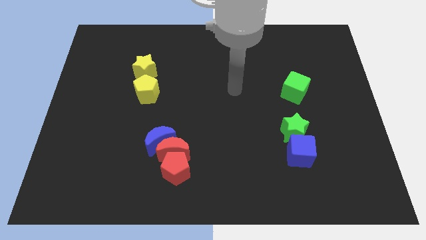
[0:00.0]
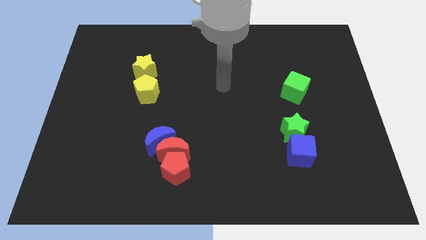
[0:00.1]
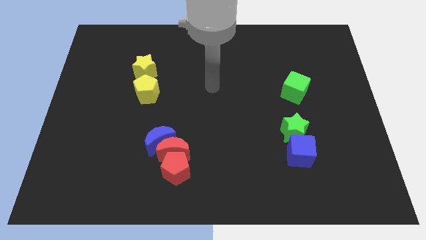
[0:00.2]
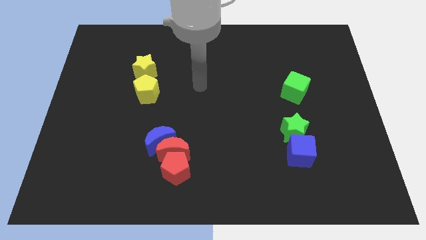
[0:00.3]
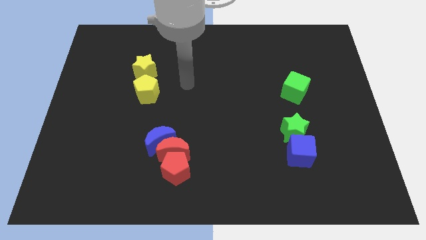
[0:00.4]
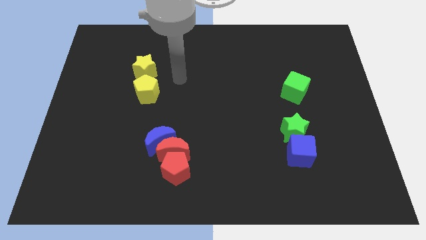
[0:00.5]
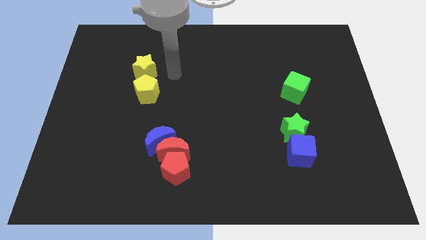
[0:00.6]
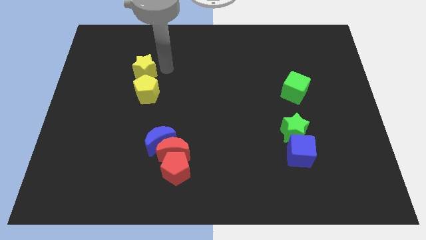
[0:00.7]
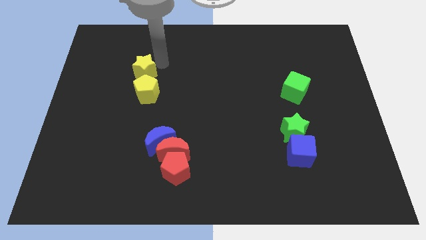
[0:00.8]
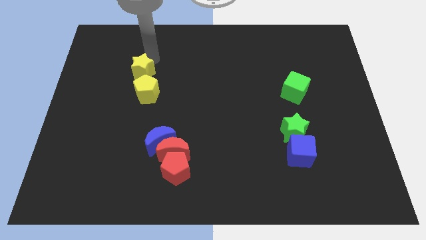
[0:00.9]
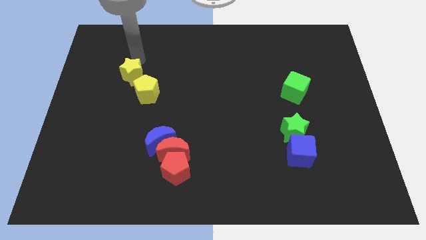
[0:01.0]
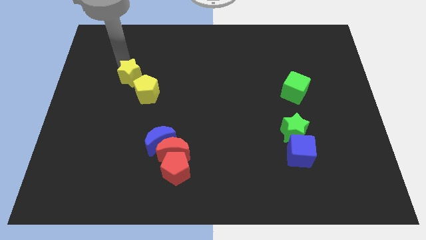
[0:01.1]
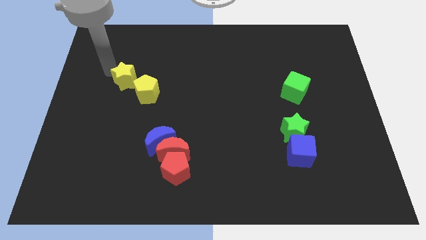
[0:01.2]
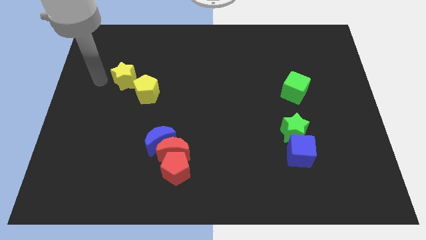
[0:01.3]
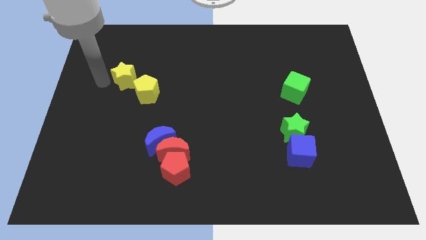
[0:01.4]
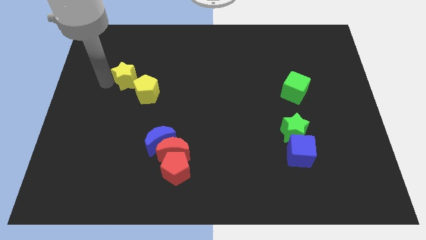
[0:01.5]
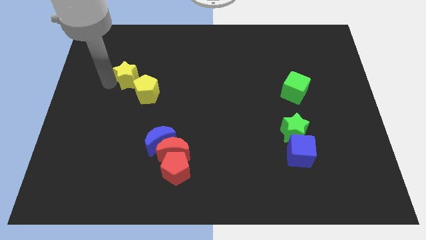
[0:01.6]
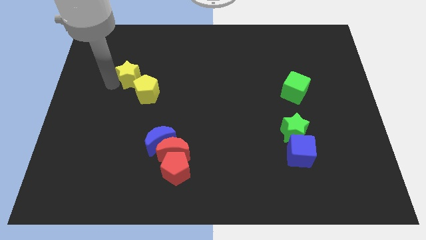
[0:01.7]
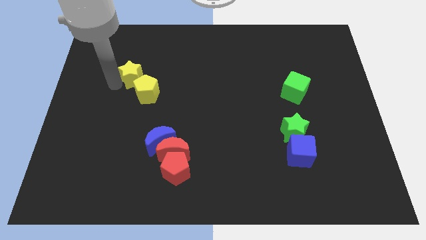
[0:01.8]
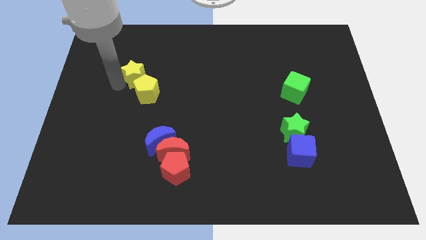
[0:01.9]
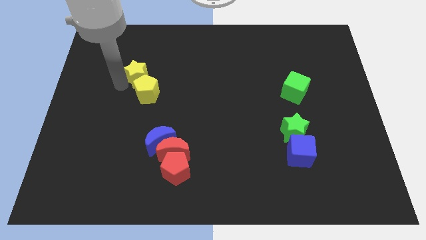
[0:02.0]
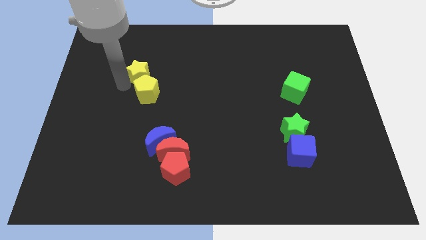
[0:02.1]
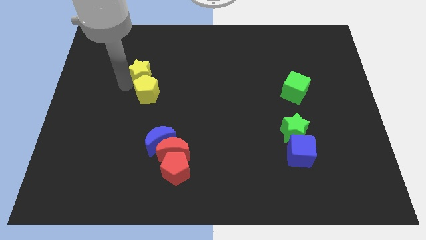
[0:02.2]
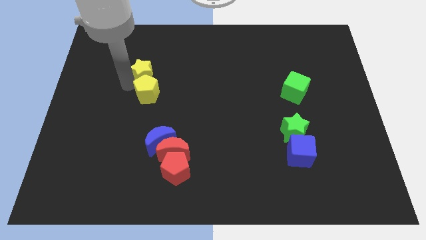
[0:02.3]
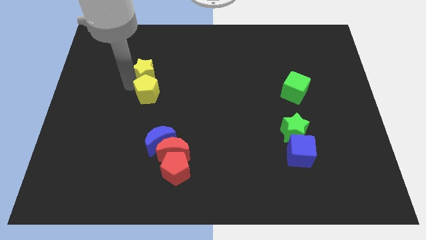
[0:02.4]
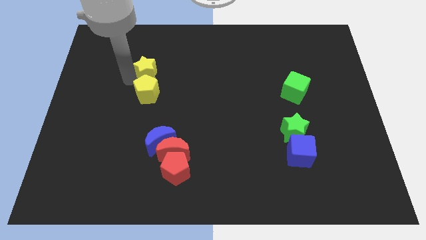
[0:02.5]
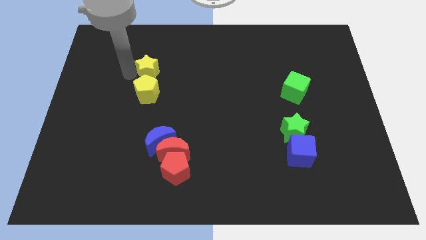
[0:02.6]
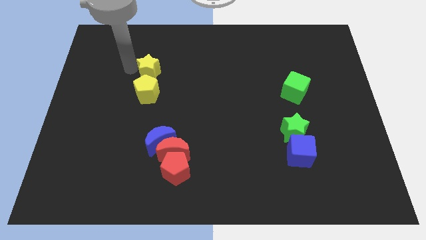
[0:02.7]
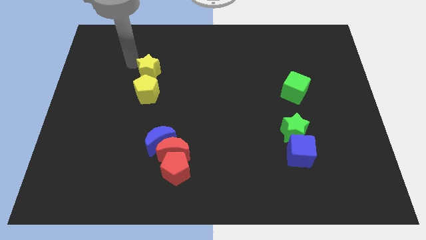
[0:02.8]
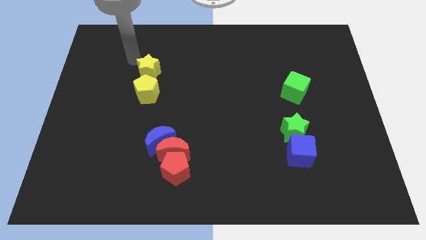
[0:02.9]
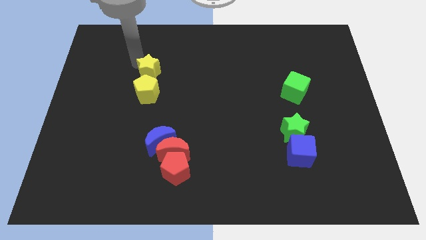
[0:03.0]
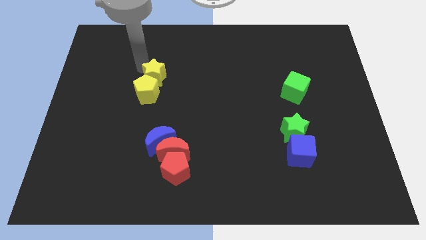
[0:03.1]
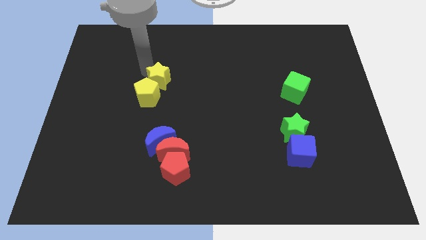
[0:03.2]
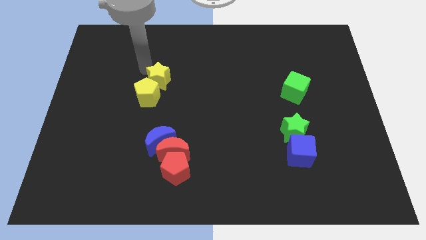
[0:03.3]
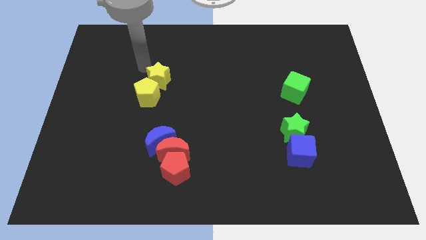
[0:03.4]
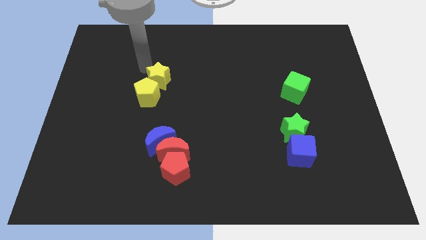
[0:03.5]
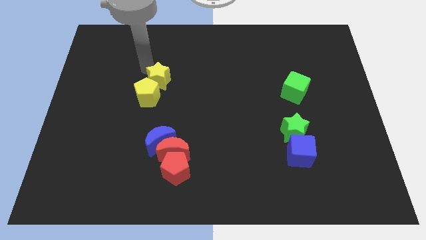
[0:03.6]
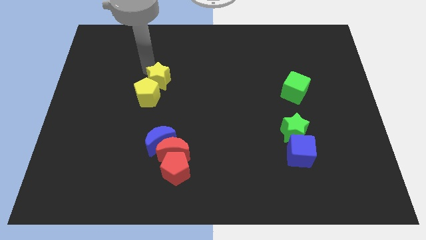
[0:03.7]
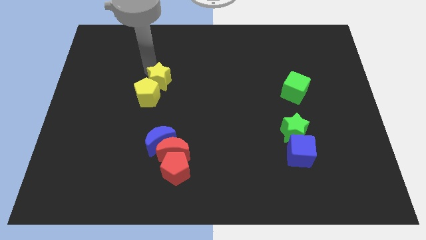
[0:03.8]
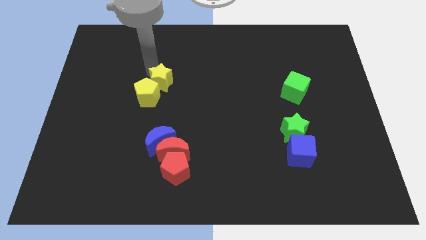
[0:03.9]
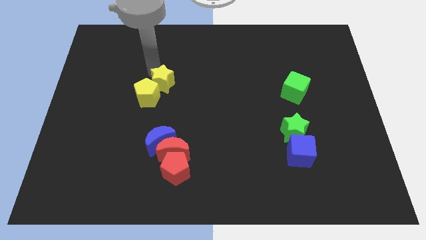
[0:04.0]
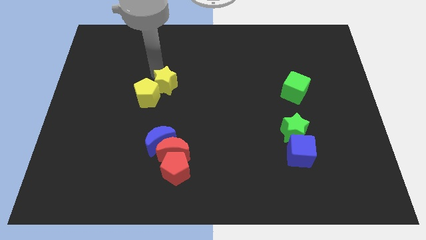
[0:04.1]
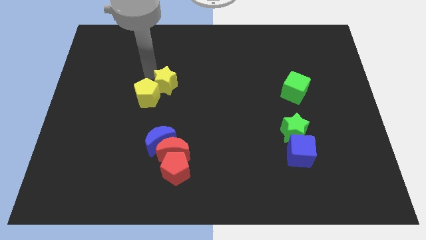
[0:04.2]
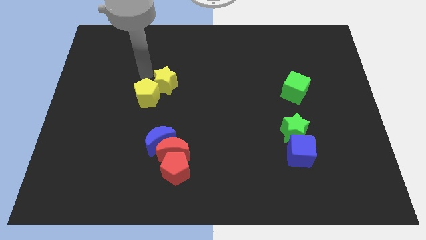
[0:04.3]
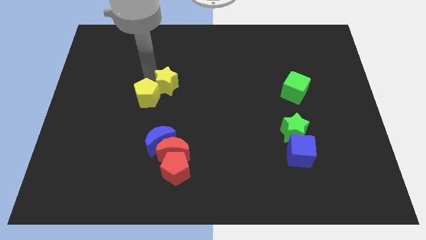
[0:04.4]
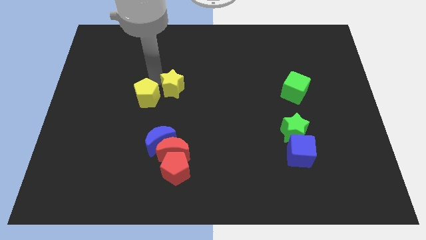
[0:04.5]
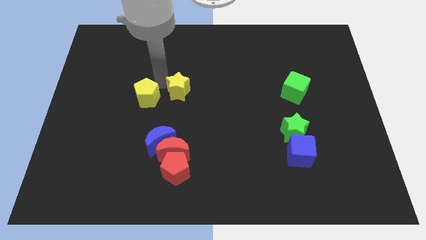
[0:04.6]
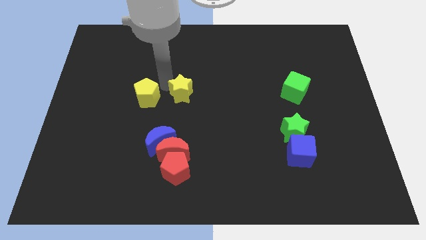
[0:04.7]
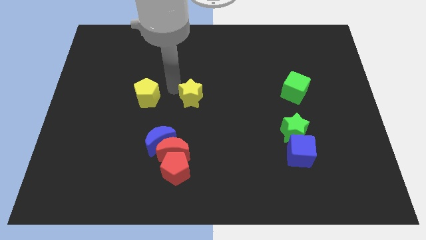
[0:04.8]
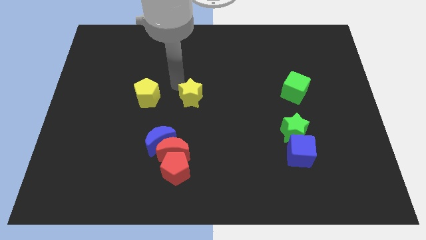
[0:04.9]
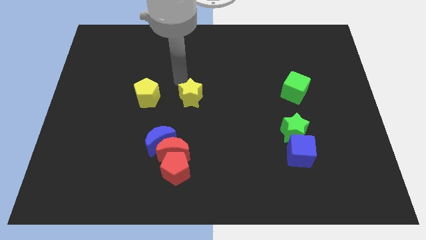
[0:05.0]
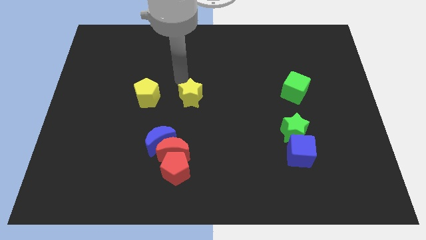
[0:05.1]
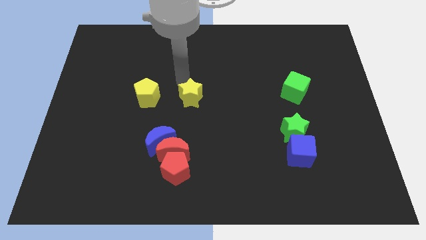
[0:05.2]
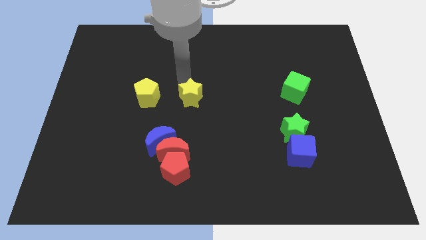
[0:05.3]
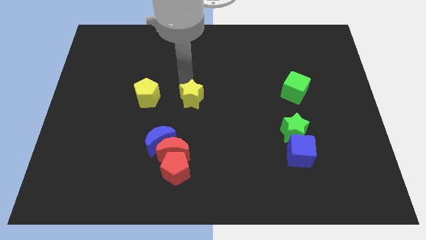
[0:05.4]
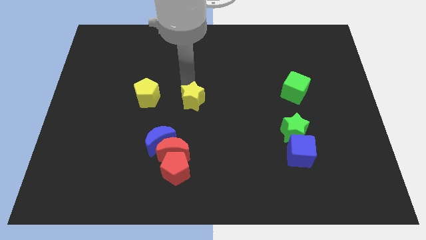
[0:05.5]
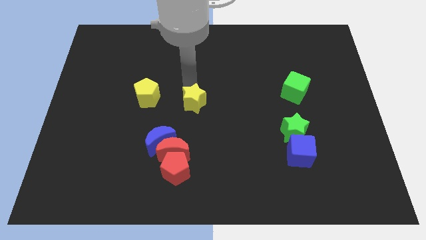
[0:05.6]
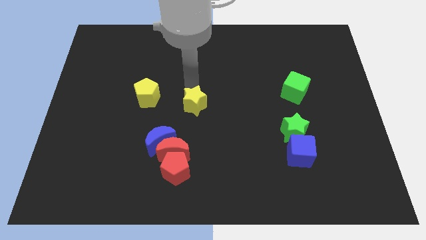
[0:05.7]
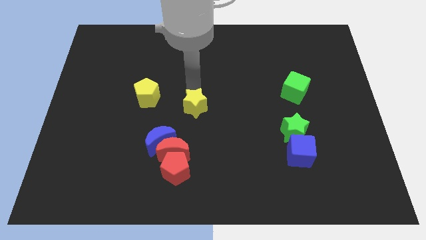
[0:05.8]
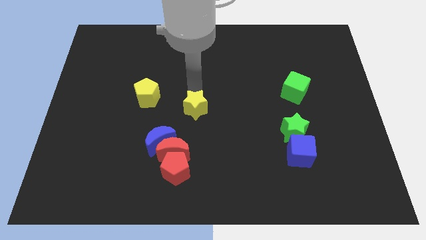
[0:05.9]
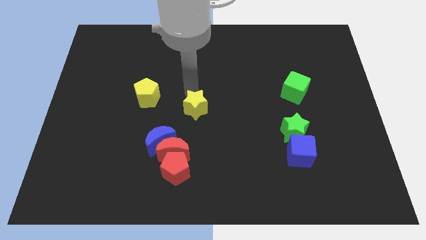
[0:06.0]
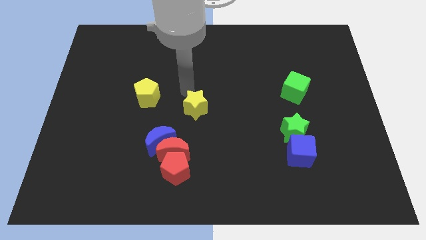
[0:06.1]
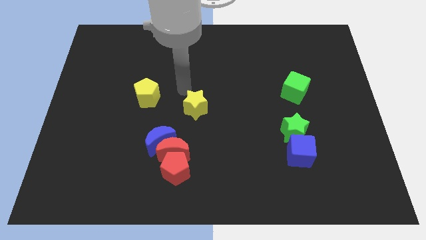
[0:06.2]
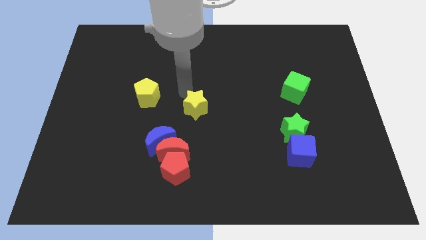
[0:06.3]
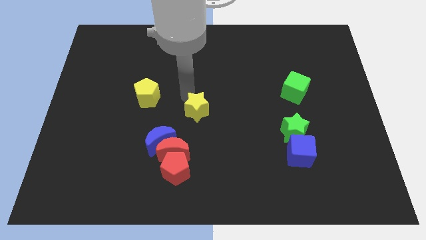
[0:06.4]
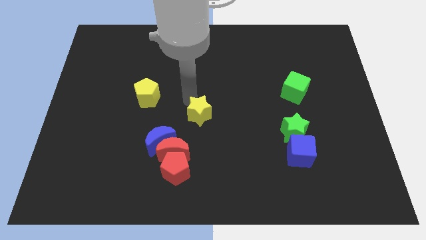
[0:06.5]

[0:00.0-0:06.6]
push the yellow star down and to the right

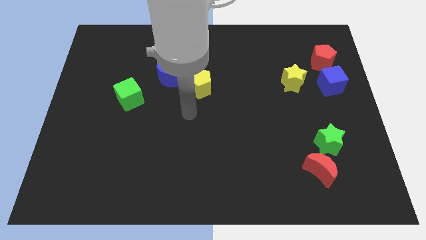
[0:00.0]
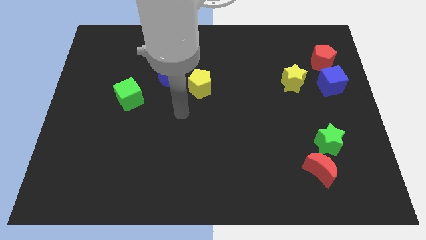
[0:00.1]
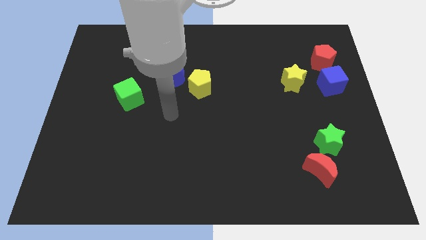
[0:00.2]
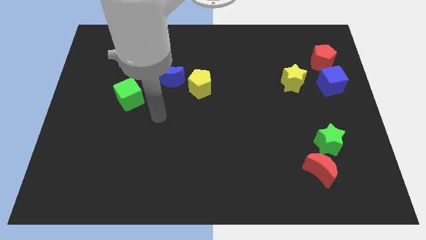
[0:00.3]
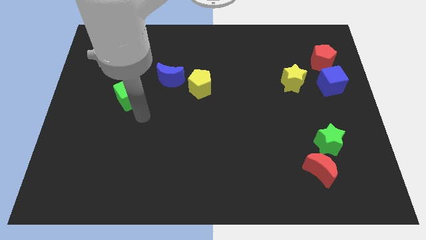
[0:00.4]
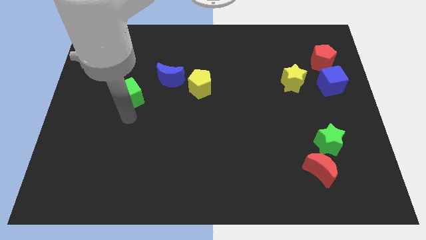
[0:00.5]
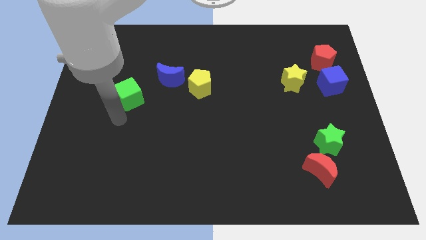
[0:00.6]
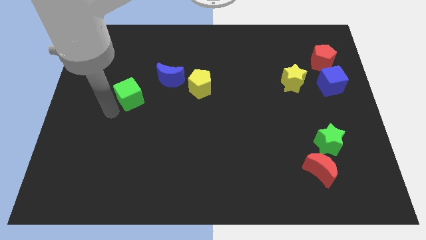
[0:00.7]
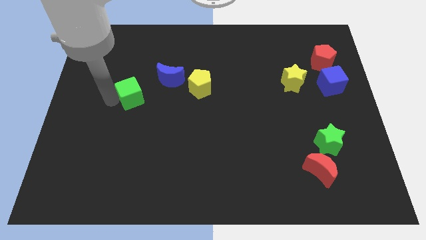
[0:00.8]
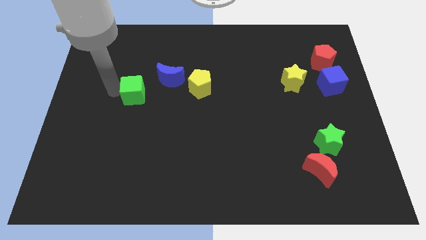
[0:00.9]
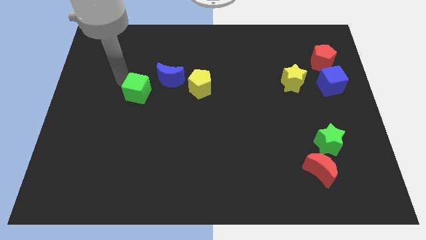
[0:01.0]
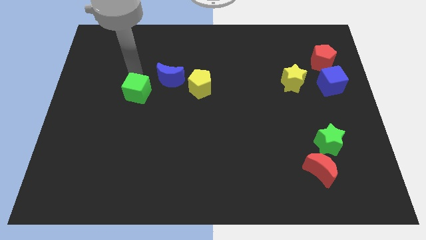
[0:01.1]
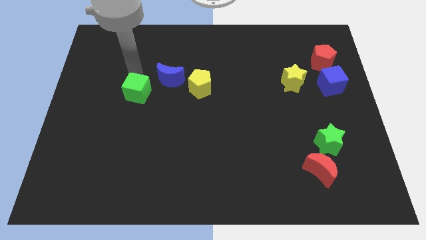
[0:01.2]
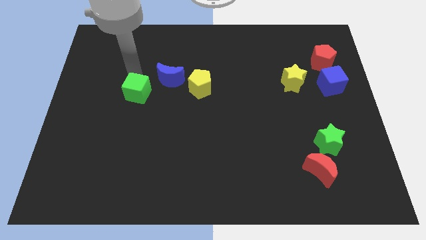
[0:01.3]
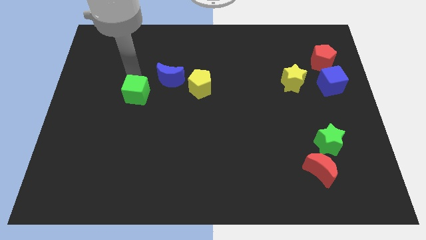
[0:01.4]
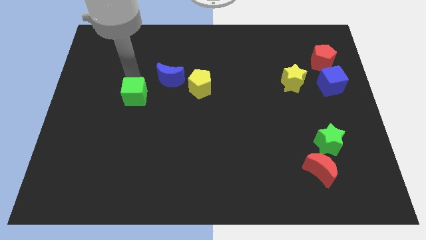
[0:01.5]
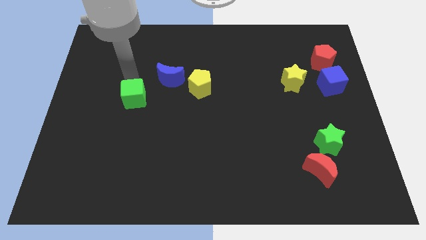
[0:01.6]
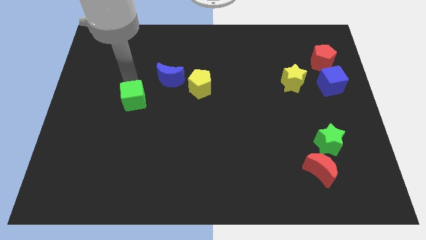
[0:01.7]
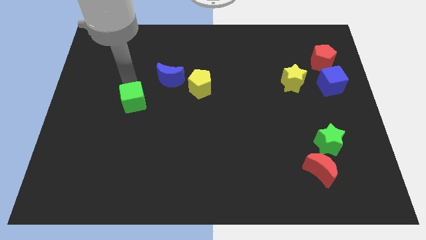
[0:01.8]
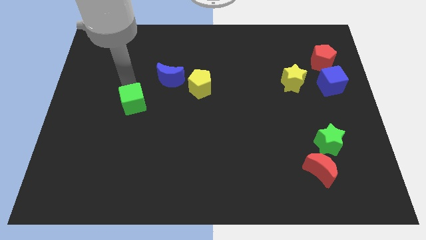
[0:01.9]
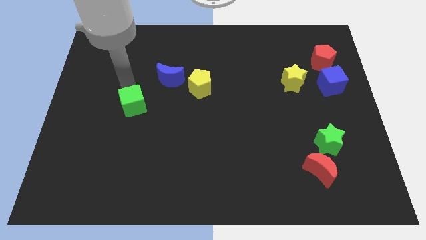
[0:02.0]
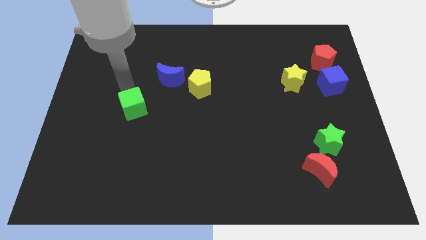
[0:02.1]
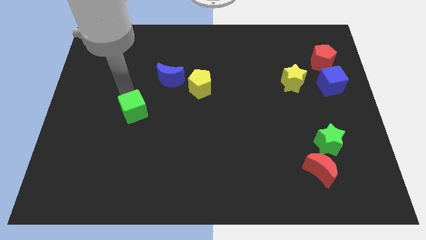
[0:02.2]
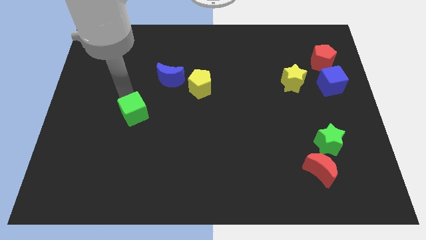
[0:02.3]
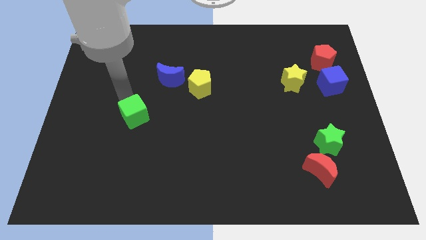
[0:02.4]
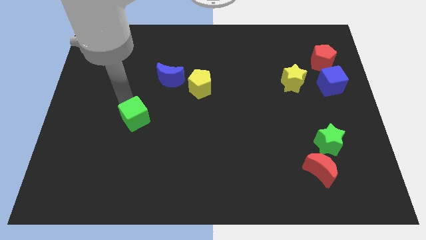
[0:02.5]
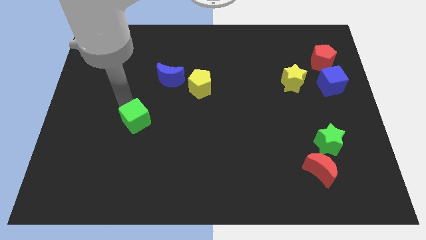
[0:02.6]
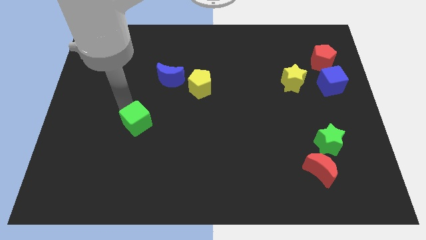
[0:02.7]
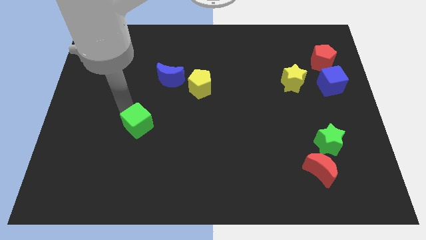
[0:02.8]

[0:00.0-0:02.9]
move the green cube downwards and then right somewhat
